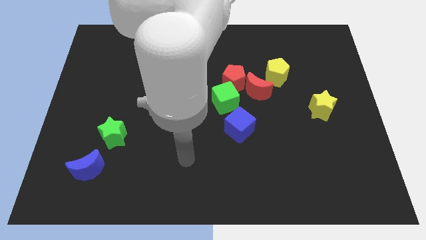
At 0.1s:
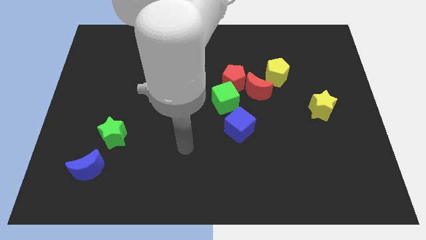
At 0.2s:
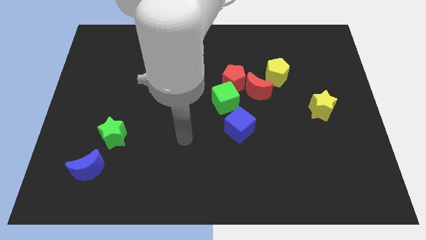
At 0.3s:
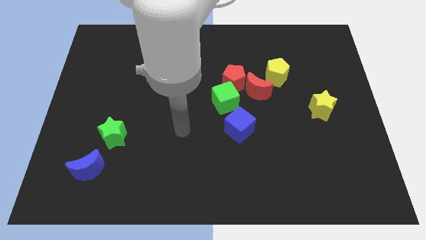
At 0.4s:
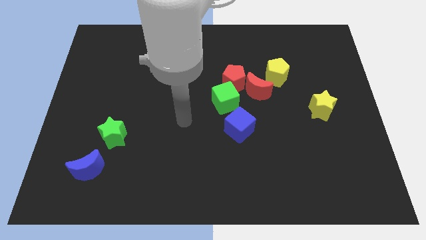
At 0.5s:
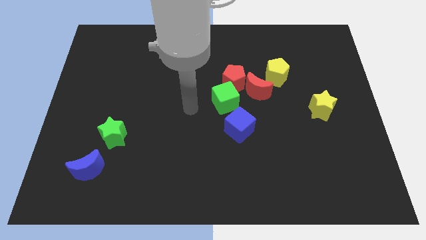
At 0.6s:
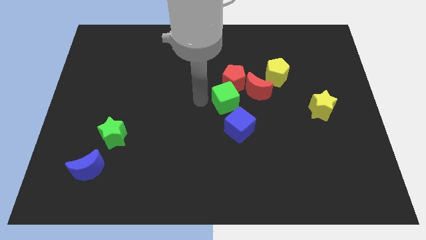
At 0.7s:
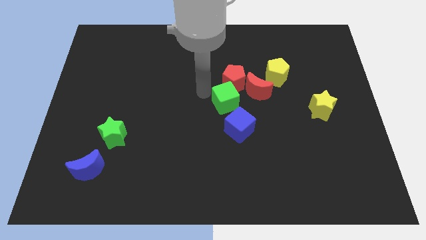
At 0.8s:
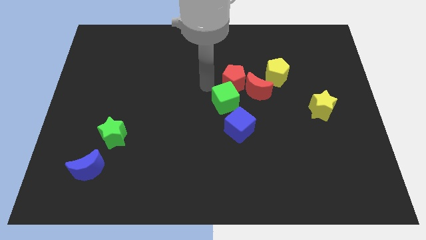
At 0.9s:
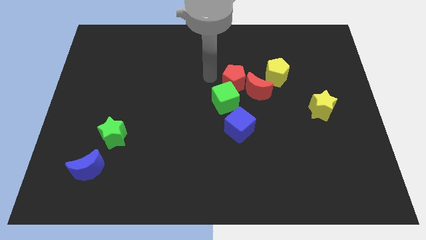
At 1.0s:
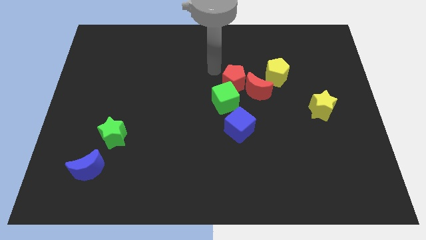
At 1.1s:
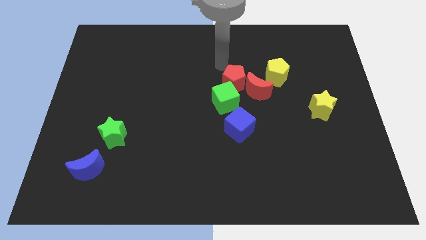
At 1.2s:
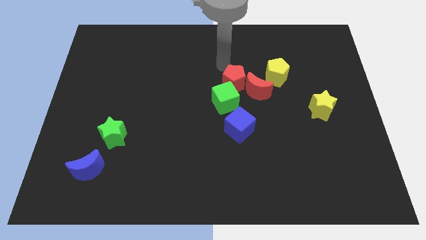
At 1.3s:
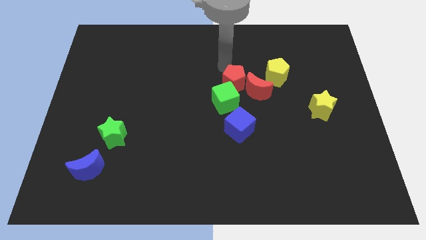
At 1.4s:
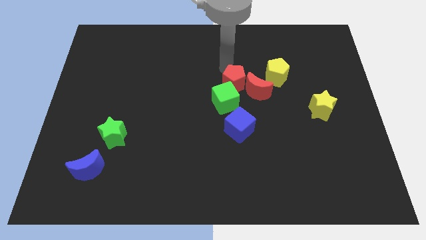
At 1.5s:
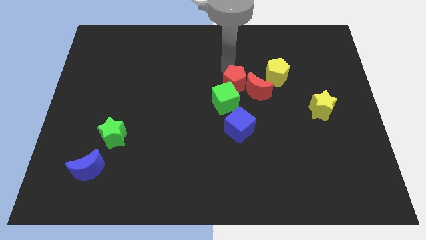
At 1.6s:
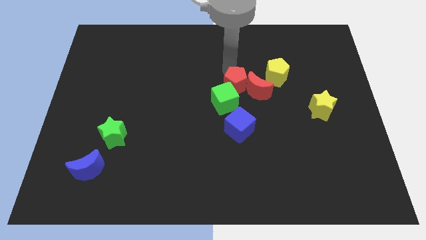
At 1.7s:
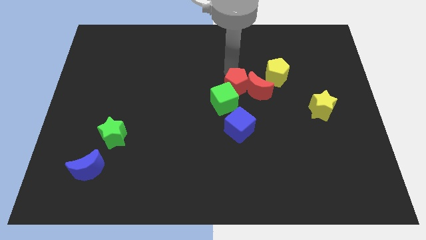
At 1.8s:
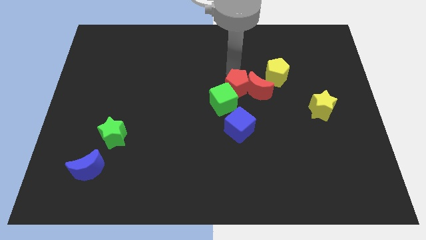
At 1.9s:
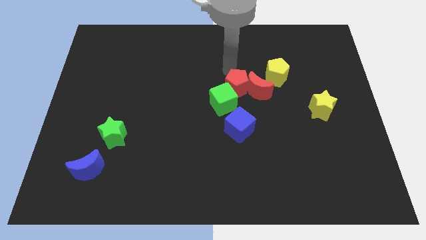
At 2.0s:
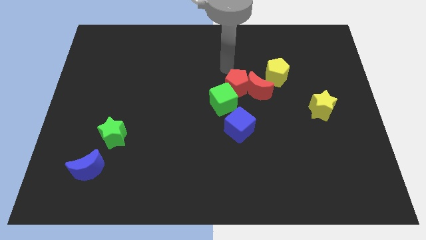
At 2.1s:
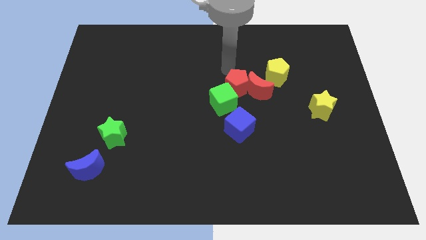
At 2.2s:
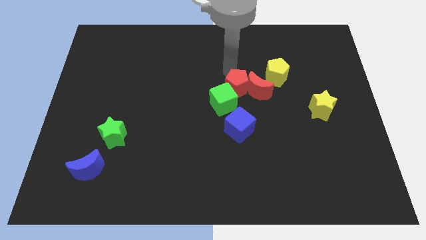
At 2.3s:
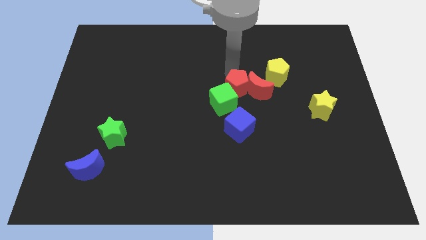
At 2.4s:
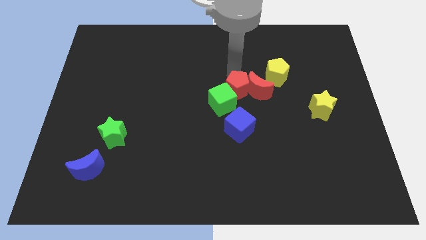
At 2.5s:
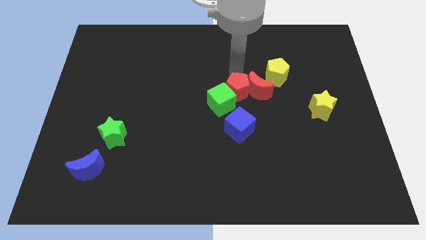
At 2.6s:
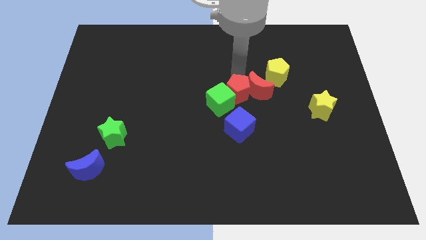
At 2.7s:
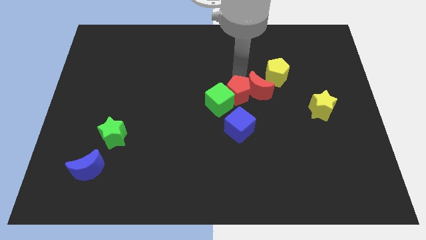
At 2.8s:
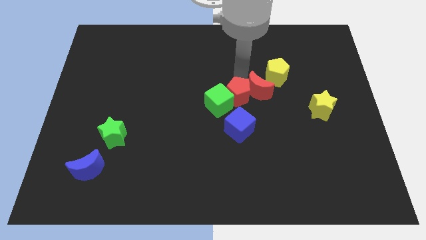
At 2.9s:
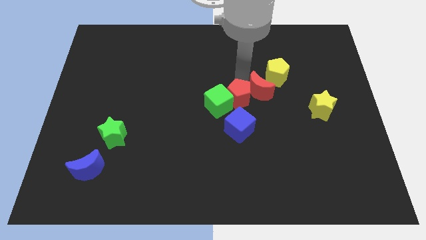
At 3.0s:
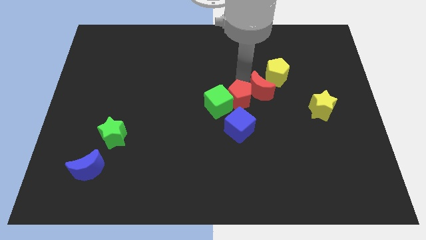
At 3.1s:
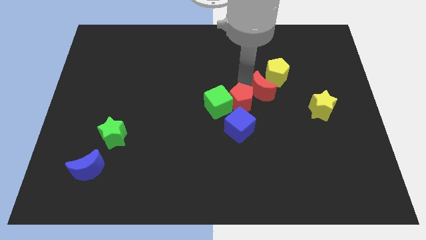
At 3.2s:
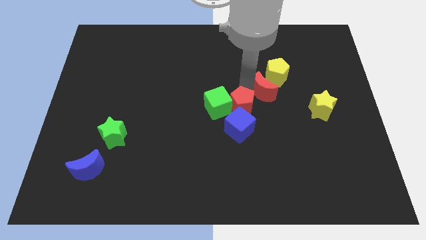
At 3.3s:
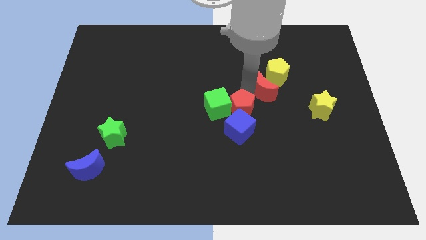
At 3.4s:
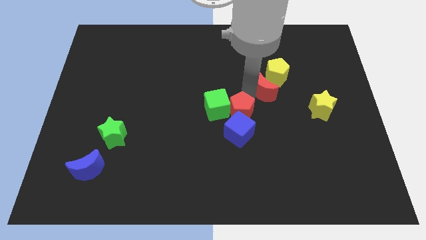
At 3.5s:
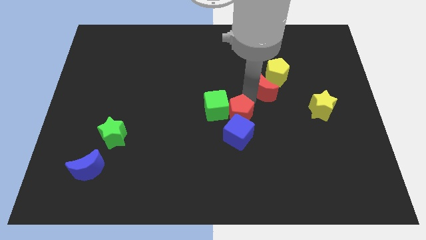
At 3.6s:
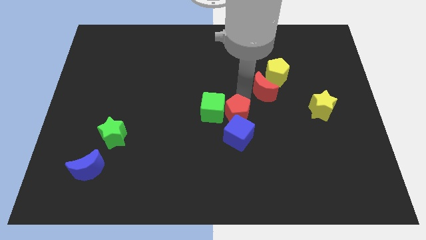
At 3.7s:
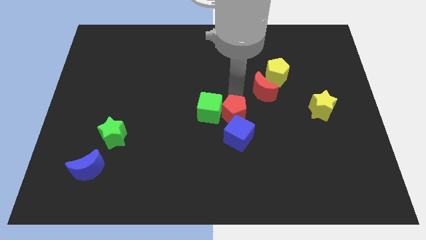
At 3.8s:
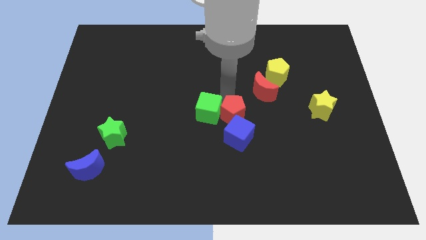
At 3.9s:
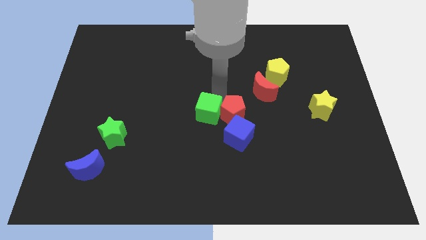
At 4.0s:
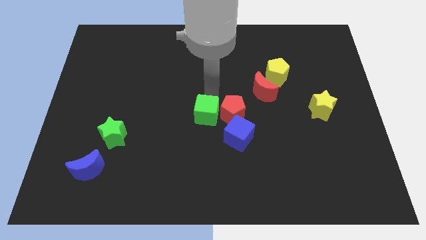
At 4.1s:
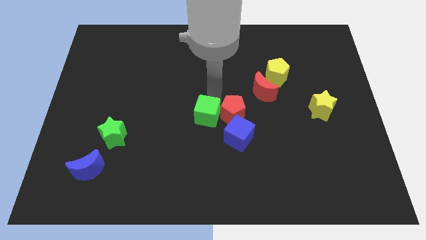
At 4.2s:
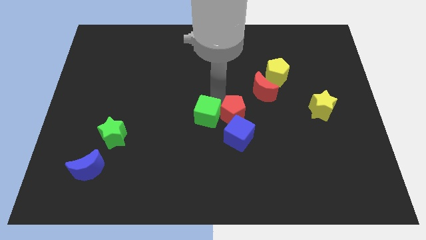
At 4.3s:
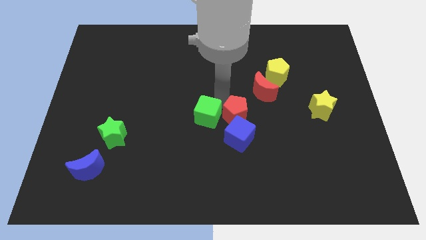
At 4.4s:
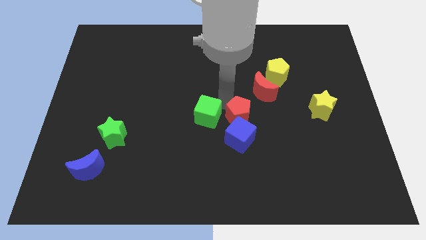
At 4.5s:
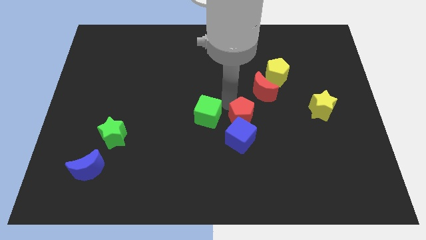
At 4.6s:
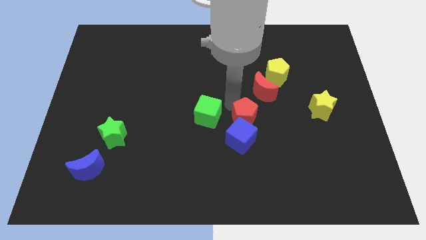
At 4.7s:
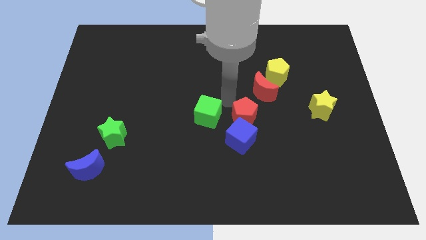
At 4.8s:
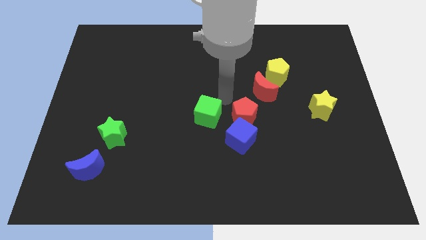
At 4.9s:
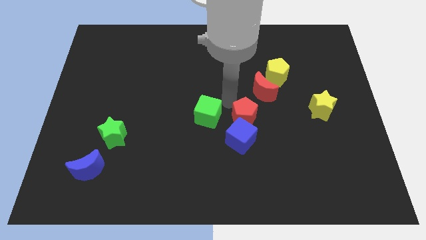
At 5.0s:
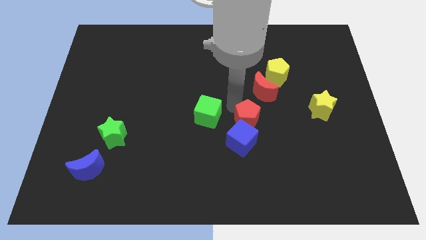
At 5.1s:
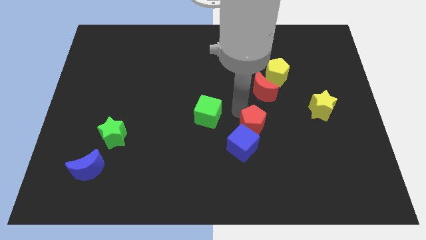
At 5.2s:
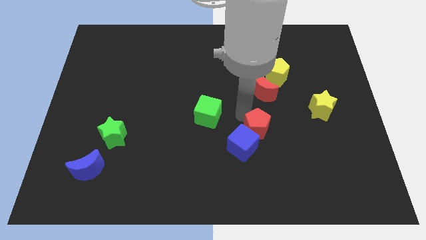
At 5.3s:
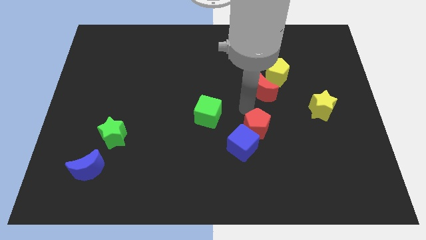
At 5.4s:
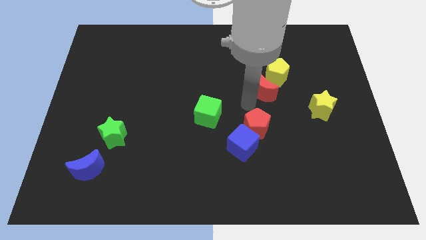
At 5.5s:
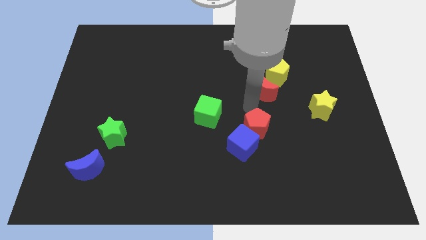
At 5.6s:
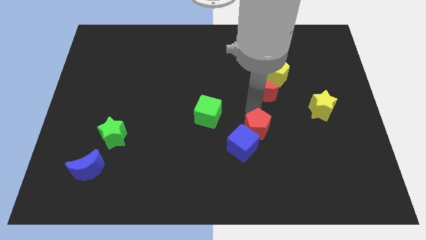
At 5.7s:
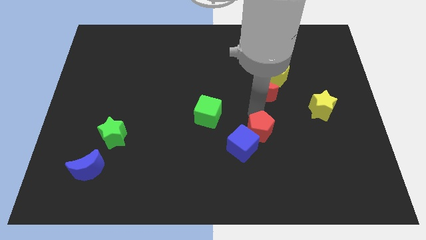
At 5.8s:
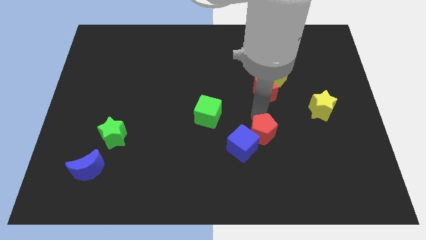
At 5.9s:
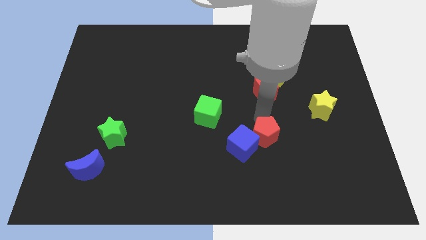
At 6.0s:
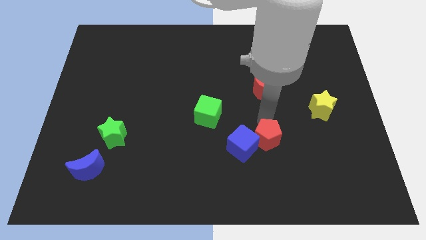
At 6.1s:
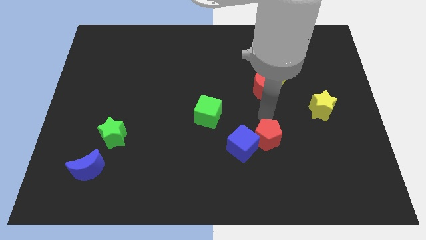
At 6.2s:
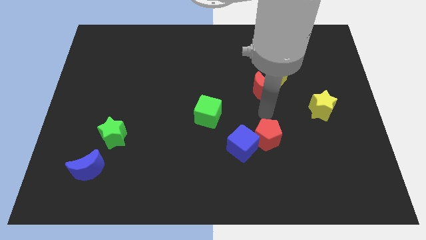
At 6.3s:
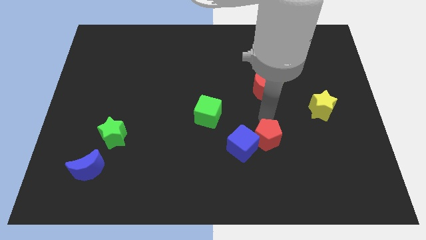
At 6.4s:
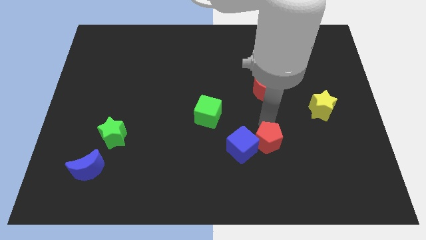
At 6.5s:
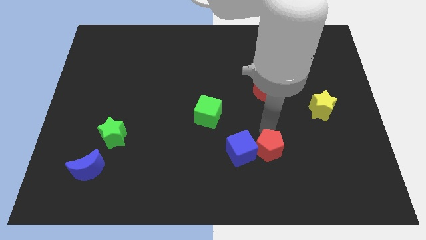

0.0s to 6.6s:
slide the red pentagon to the bottom right side of the blue cube

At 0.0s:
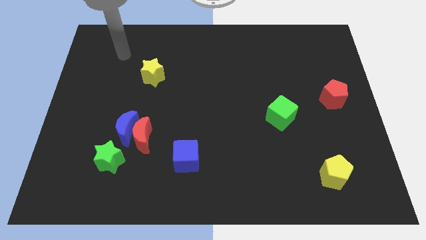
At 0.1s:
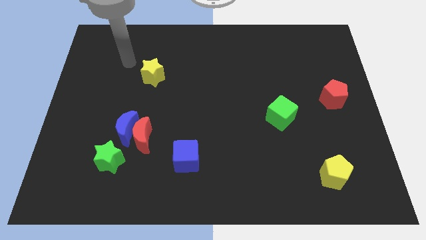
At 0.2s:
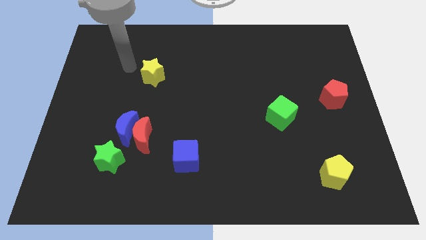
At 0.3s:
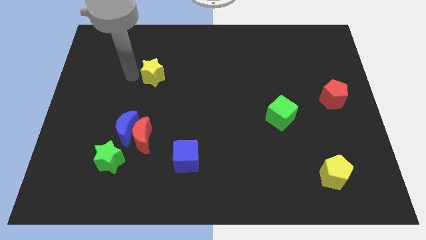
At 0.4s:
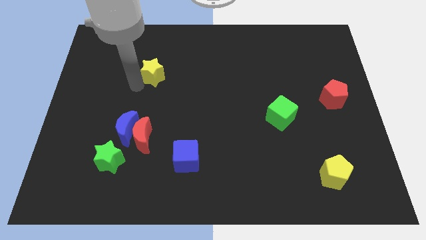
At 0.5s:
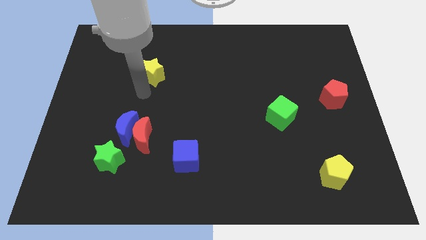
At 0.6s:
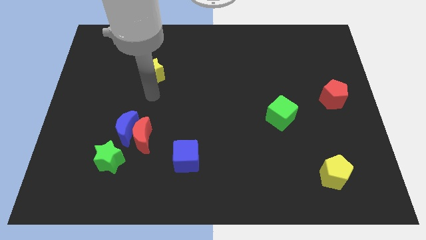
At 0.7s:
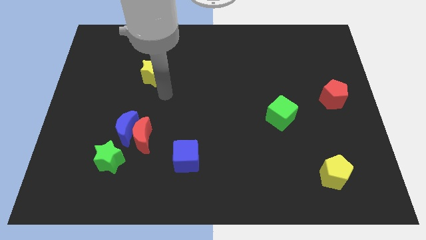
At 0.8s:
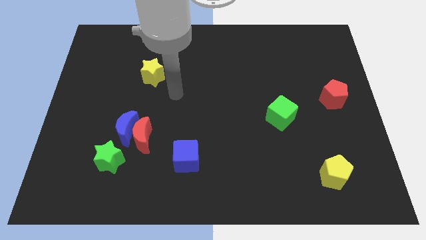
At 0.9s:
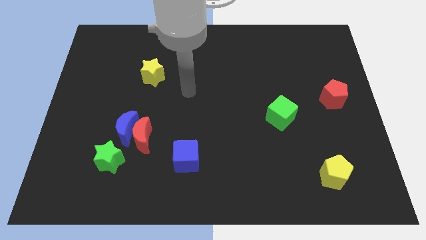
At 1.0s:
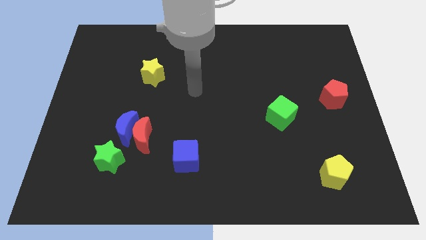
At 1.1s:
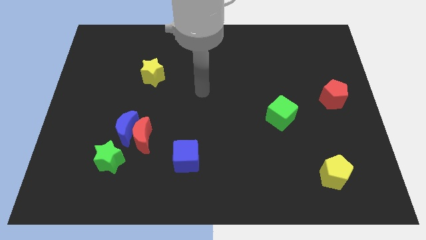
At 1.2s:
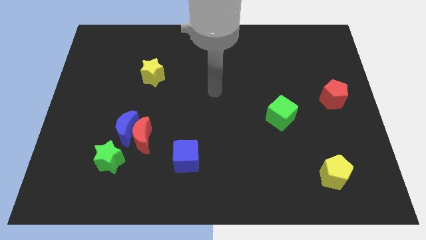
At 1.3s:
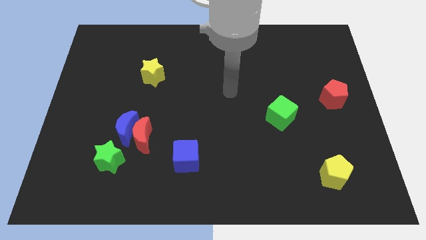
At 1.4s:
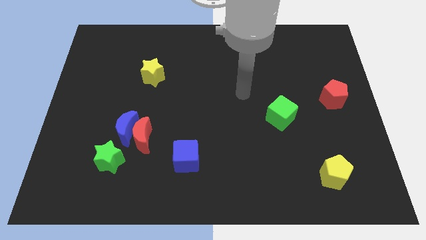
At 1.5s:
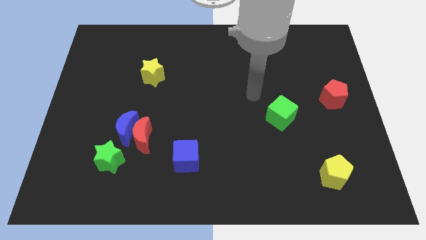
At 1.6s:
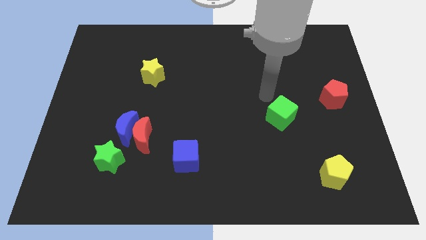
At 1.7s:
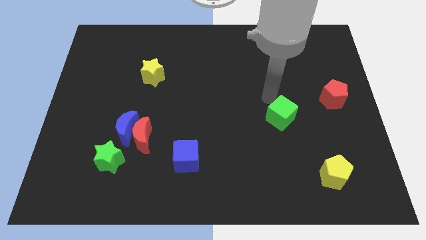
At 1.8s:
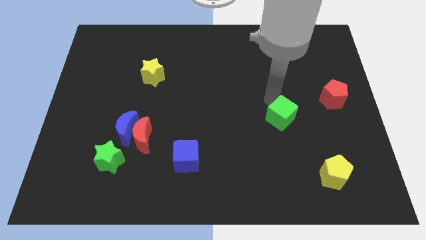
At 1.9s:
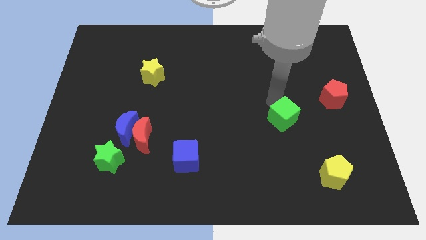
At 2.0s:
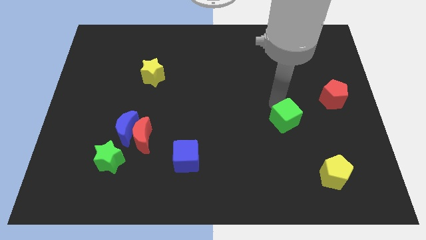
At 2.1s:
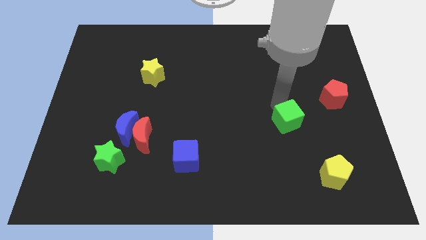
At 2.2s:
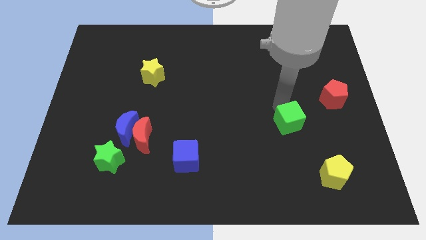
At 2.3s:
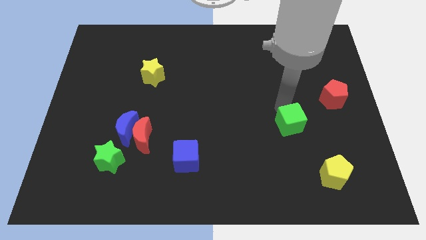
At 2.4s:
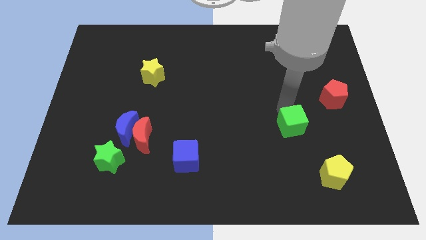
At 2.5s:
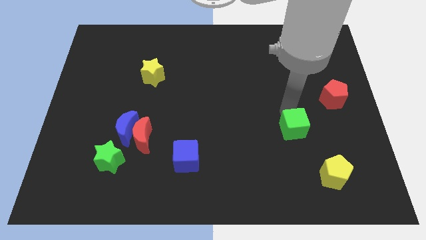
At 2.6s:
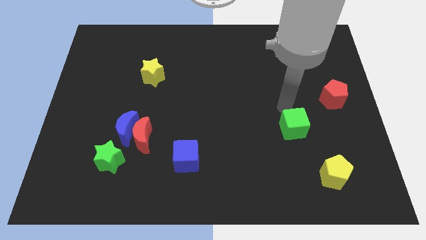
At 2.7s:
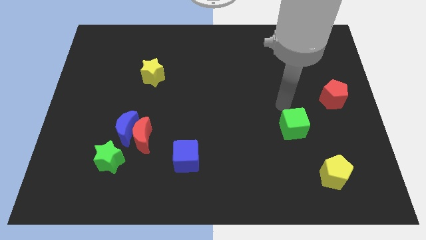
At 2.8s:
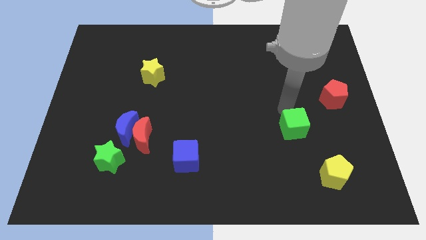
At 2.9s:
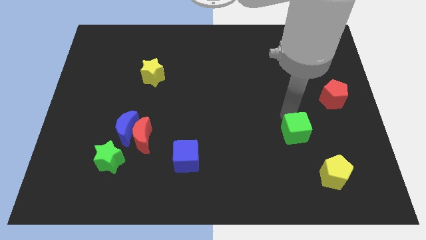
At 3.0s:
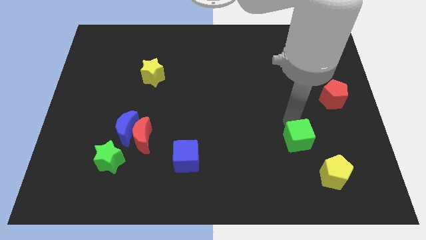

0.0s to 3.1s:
push the green cube to the top left of the yellow pentagon
